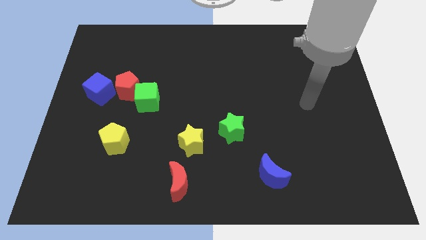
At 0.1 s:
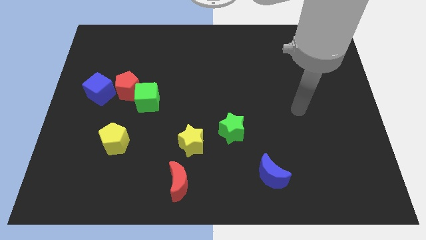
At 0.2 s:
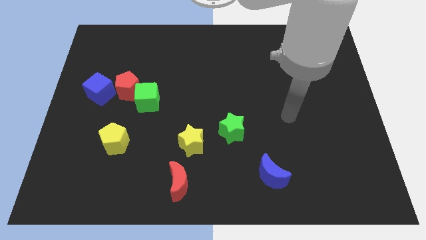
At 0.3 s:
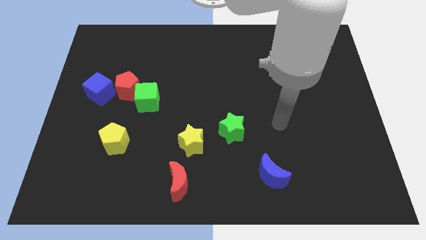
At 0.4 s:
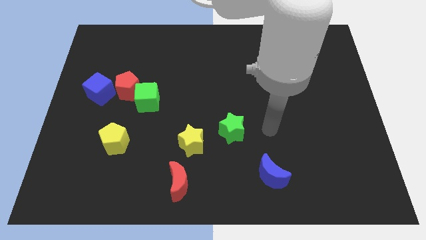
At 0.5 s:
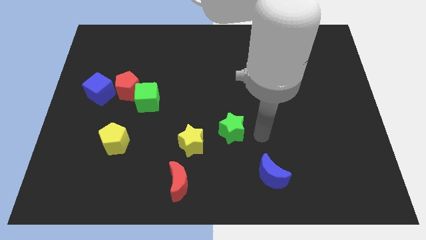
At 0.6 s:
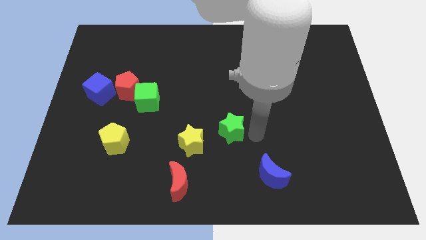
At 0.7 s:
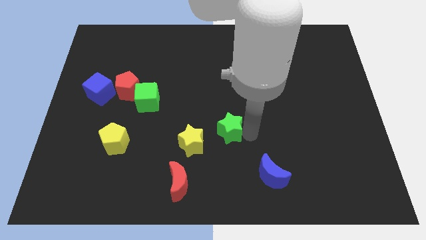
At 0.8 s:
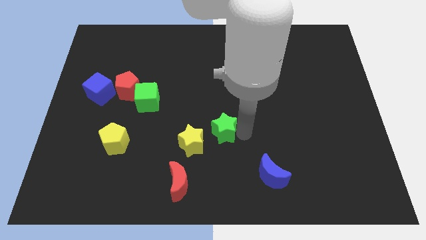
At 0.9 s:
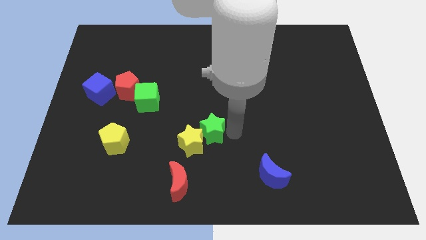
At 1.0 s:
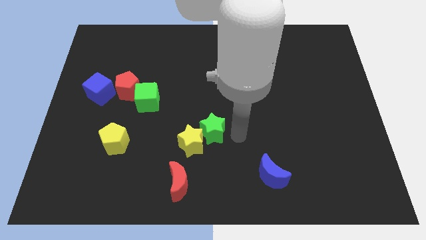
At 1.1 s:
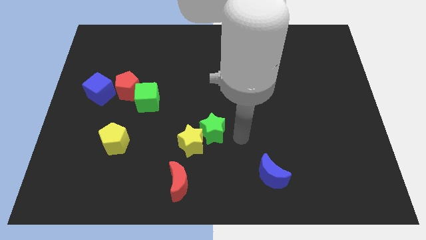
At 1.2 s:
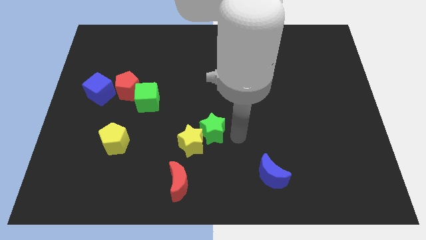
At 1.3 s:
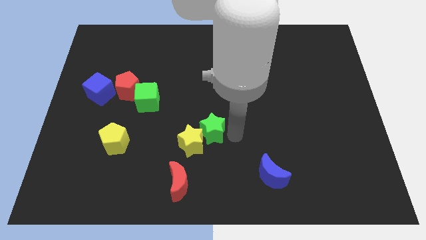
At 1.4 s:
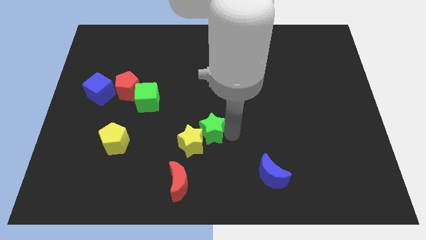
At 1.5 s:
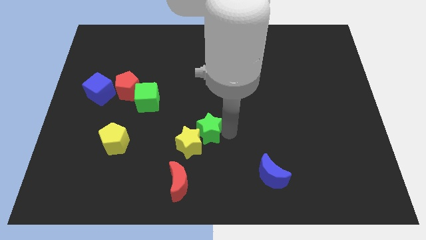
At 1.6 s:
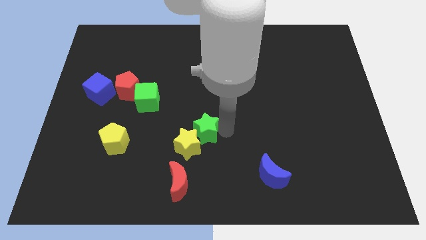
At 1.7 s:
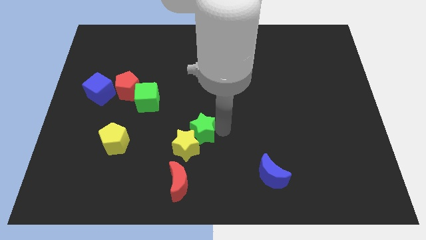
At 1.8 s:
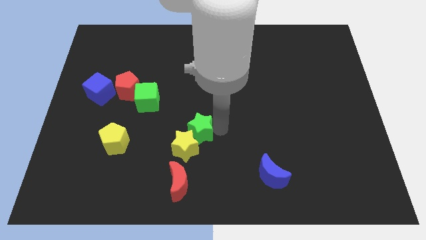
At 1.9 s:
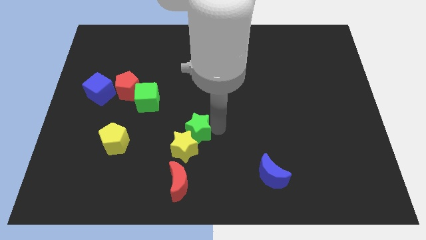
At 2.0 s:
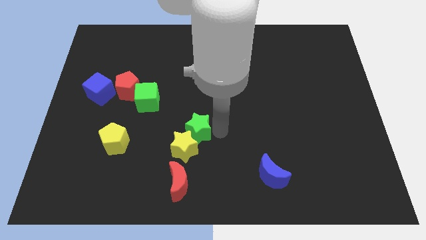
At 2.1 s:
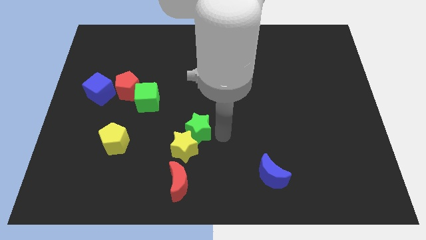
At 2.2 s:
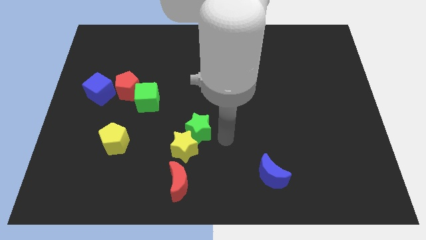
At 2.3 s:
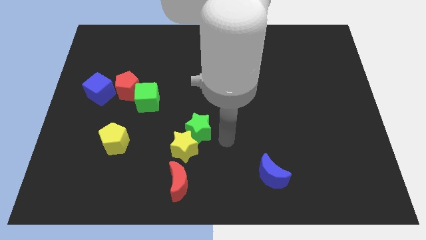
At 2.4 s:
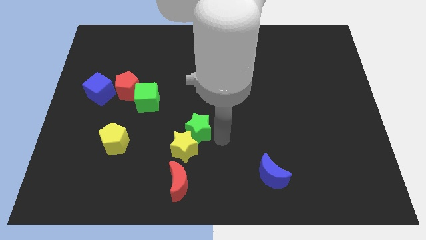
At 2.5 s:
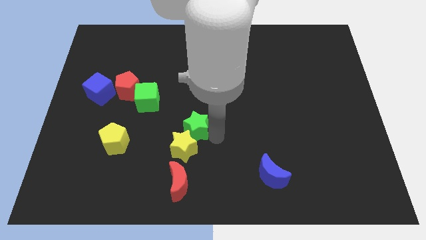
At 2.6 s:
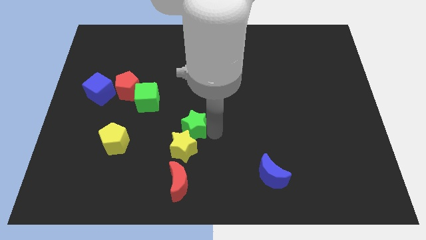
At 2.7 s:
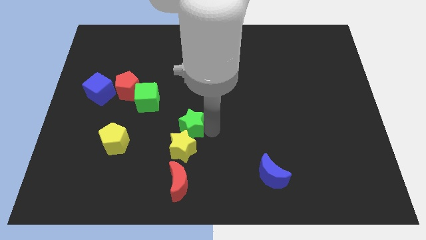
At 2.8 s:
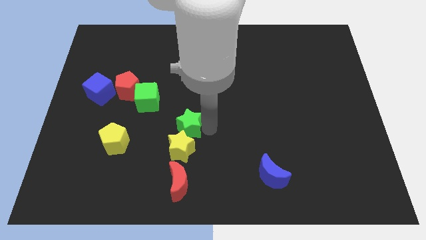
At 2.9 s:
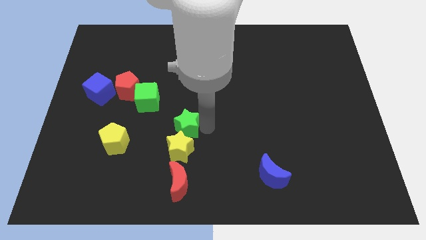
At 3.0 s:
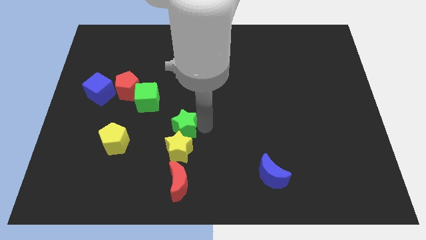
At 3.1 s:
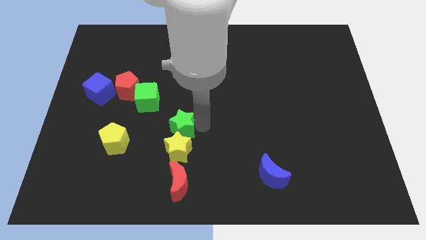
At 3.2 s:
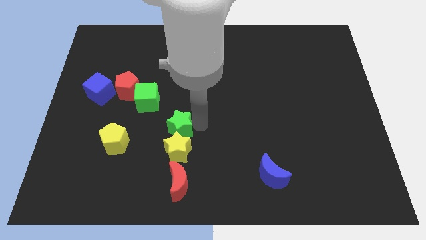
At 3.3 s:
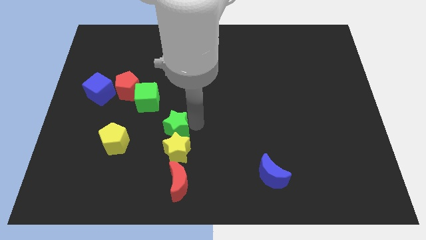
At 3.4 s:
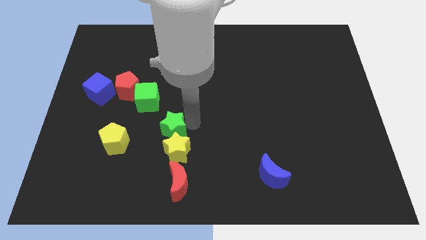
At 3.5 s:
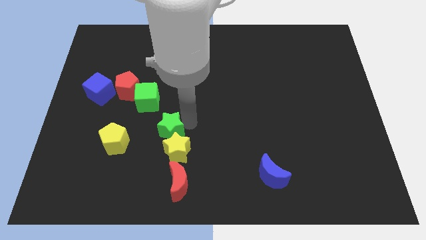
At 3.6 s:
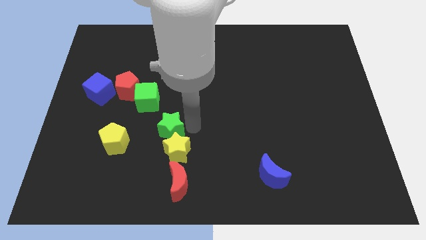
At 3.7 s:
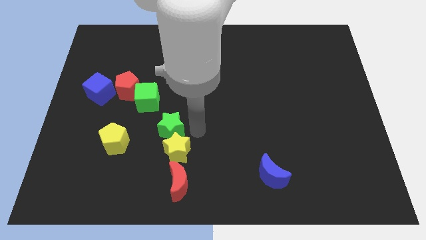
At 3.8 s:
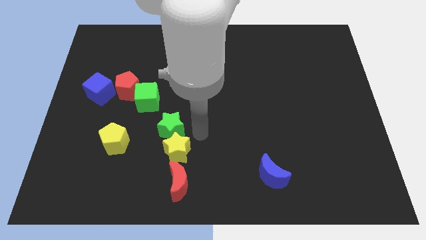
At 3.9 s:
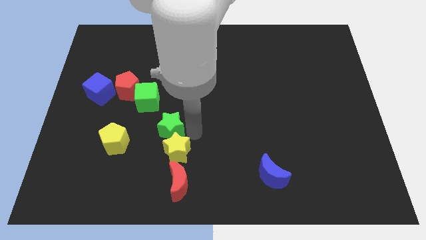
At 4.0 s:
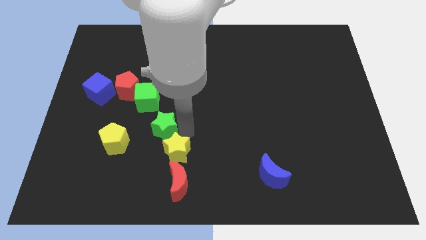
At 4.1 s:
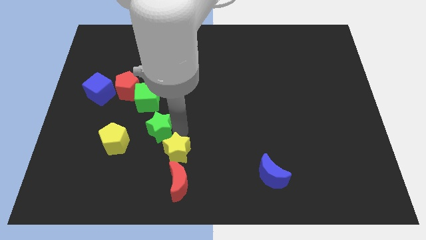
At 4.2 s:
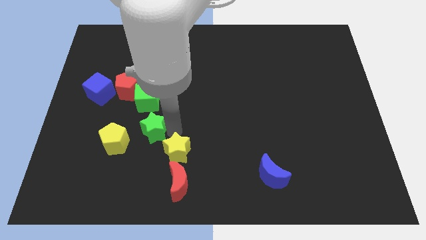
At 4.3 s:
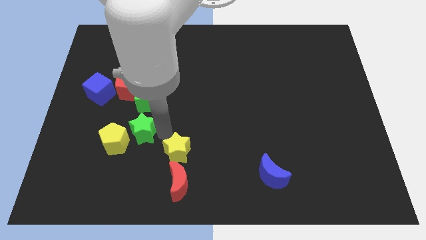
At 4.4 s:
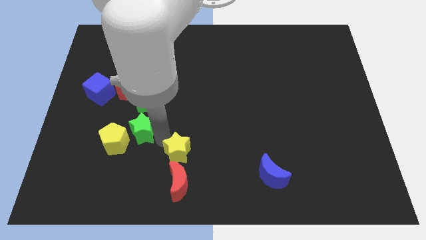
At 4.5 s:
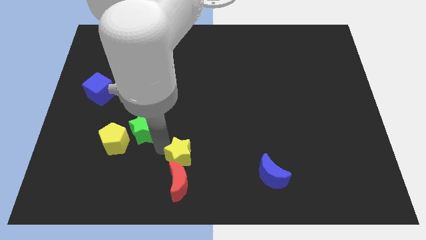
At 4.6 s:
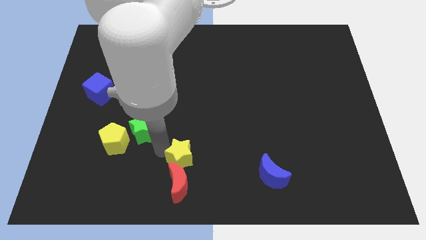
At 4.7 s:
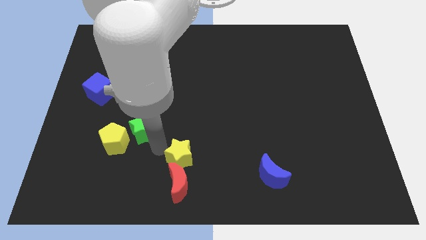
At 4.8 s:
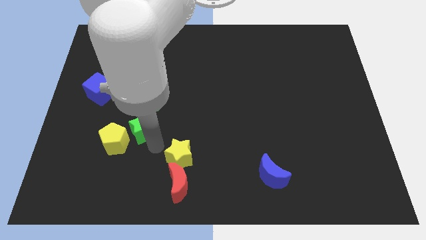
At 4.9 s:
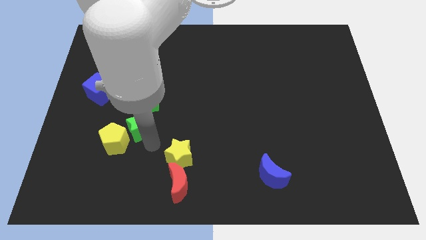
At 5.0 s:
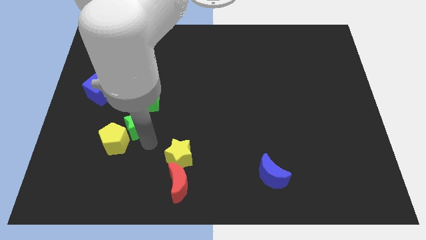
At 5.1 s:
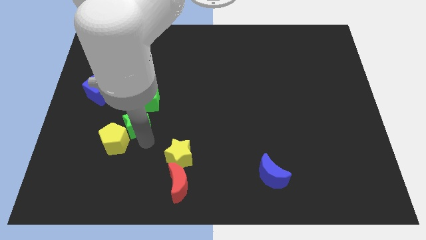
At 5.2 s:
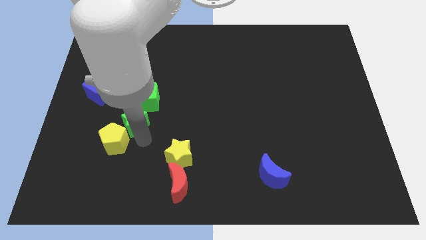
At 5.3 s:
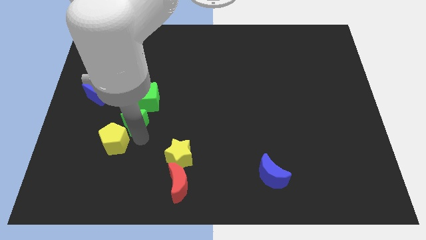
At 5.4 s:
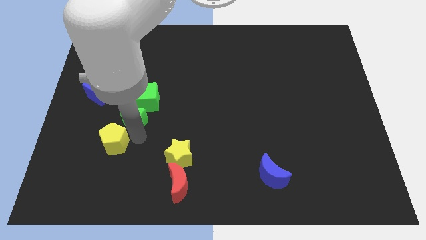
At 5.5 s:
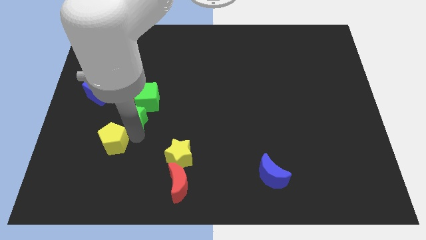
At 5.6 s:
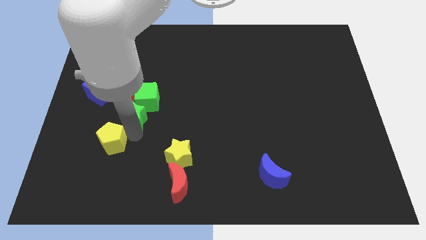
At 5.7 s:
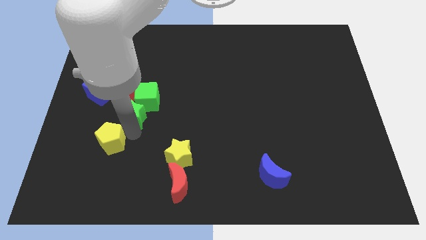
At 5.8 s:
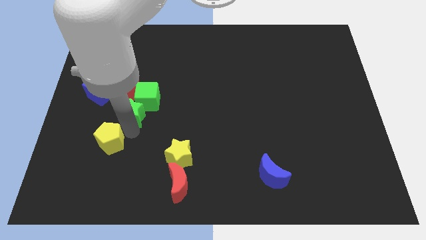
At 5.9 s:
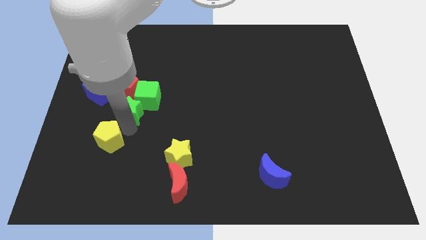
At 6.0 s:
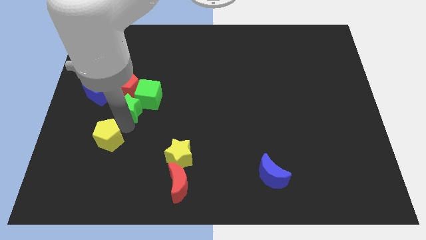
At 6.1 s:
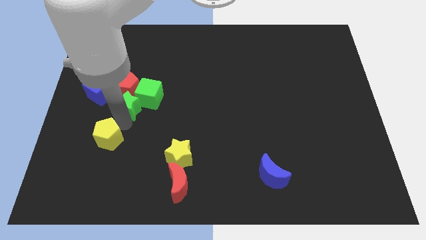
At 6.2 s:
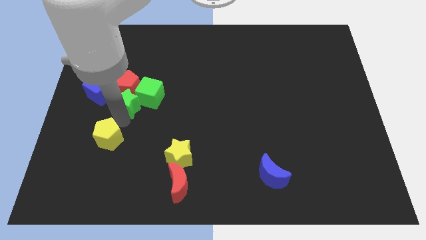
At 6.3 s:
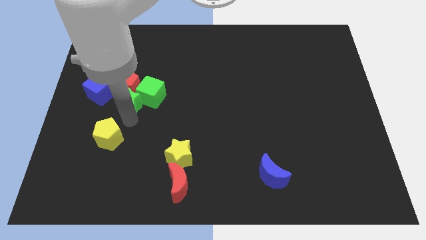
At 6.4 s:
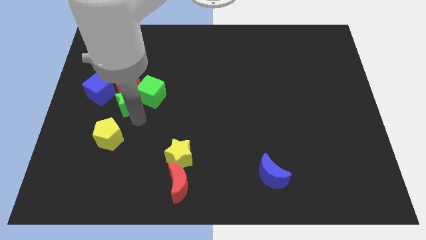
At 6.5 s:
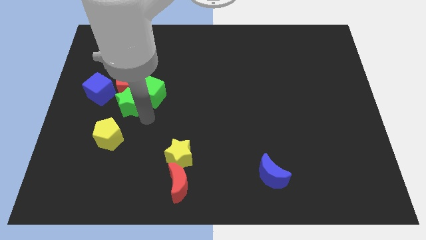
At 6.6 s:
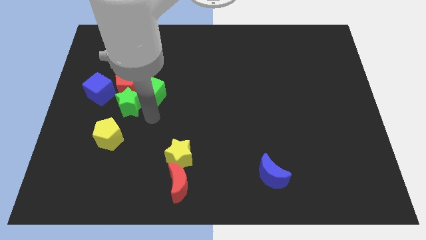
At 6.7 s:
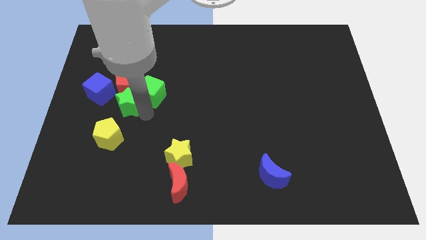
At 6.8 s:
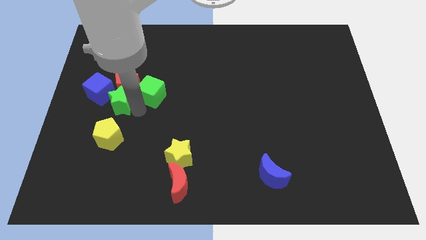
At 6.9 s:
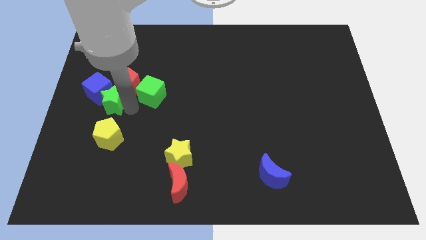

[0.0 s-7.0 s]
push the green star to the blue cube
